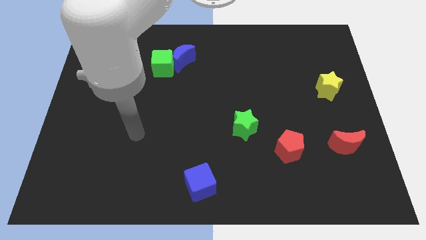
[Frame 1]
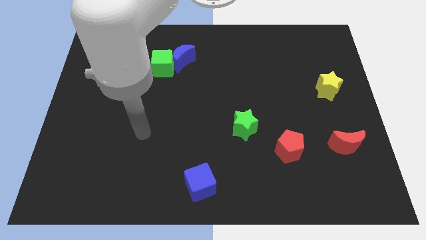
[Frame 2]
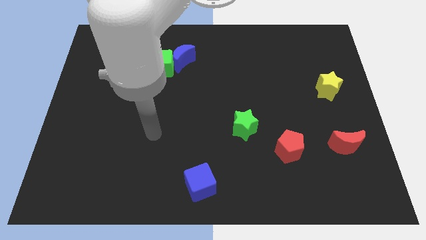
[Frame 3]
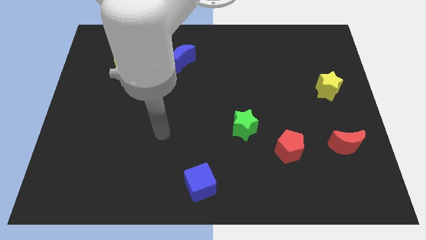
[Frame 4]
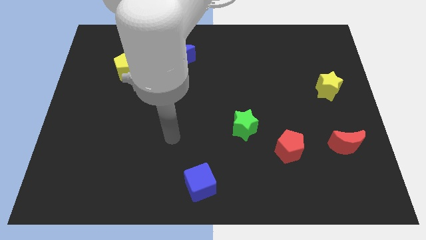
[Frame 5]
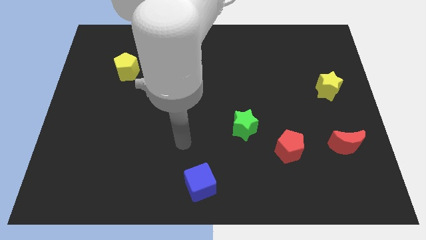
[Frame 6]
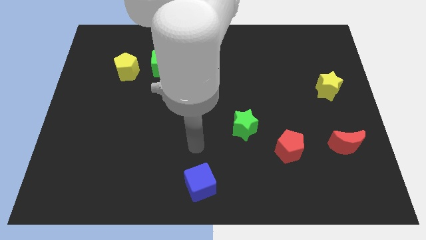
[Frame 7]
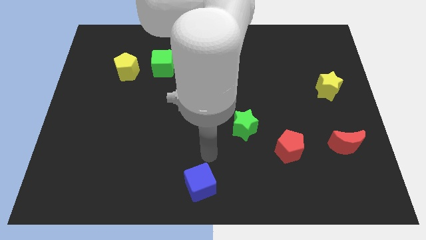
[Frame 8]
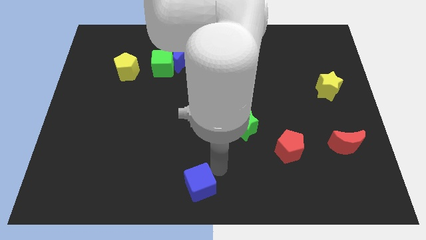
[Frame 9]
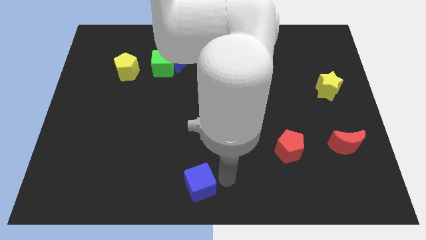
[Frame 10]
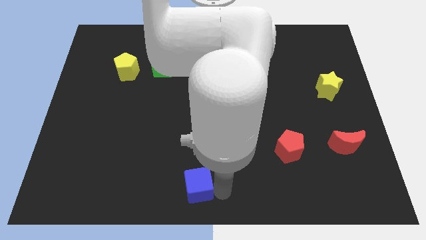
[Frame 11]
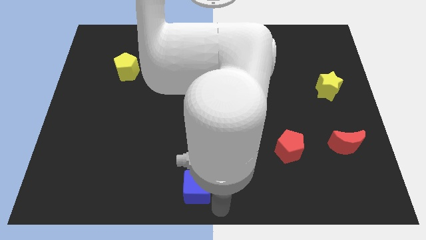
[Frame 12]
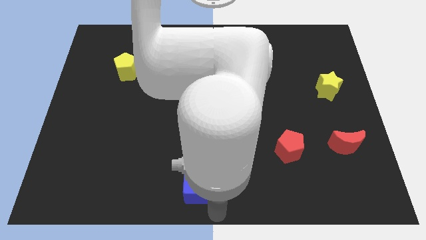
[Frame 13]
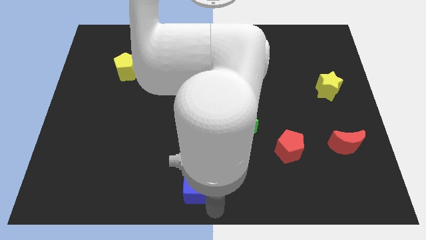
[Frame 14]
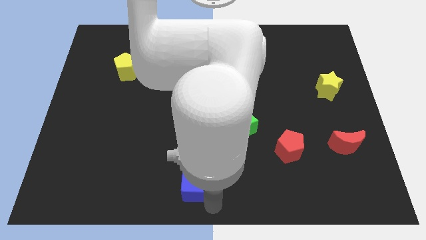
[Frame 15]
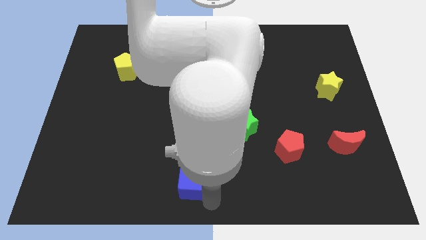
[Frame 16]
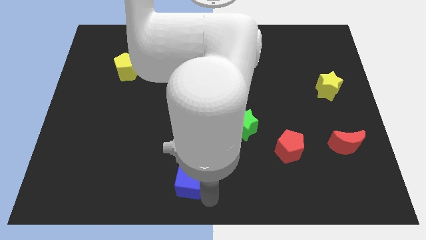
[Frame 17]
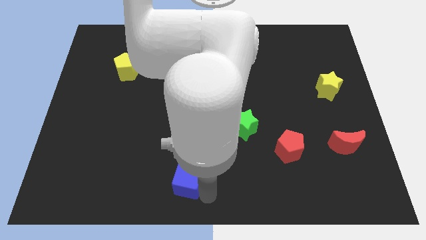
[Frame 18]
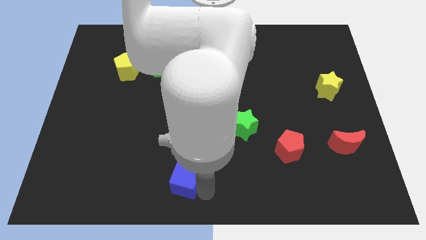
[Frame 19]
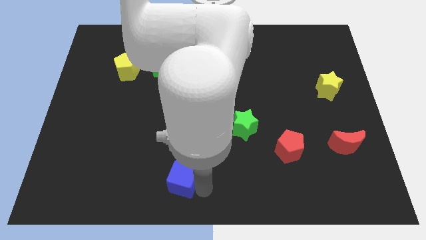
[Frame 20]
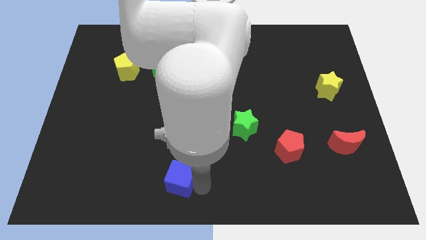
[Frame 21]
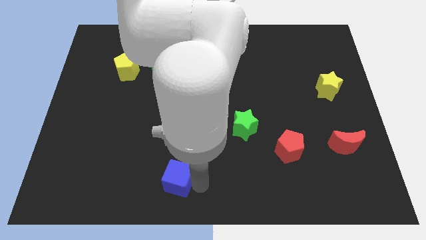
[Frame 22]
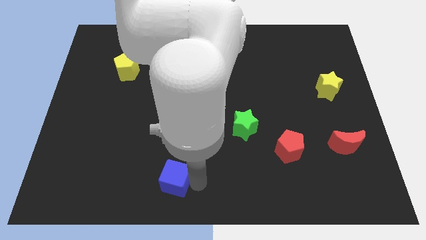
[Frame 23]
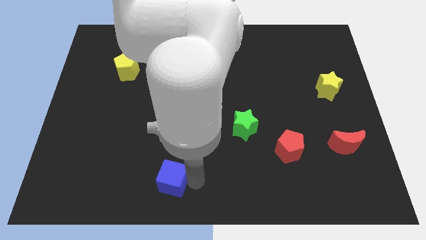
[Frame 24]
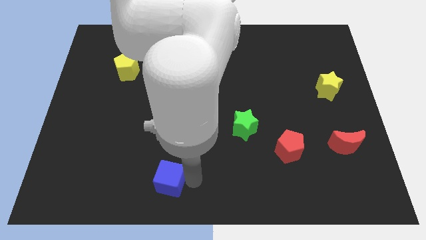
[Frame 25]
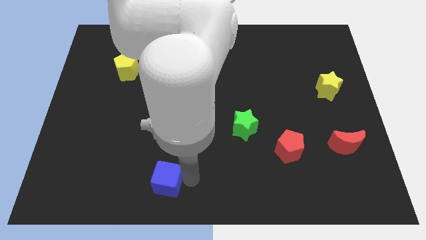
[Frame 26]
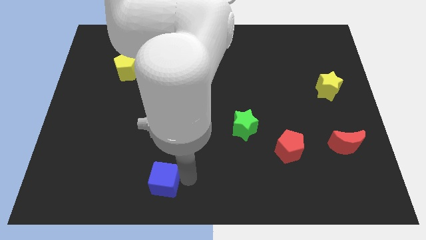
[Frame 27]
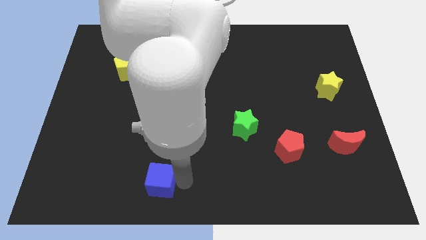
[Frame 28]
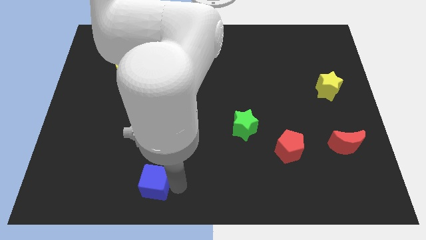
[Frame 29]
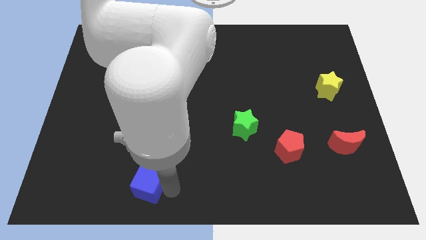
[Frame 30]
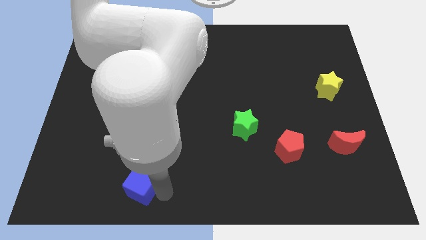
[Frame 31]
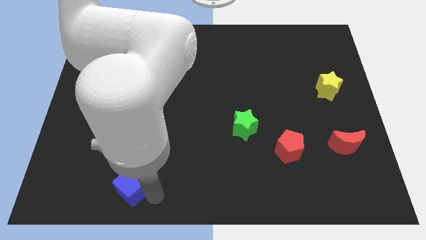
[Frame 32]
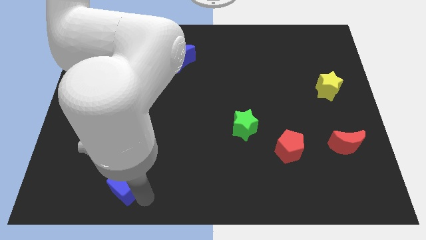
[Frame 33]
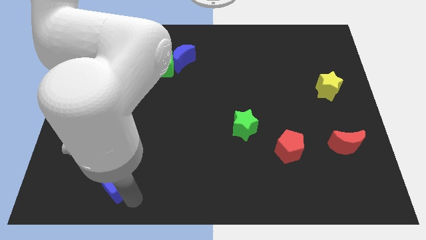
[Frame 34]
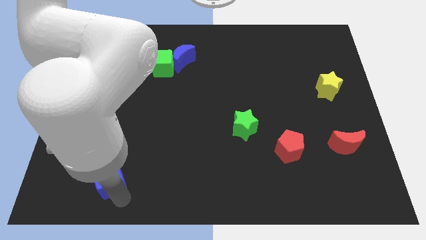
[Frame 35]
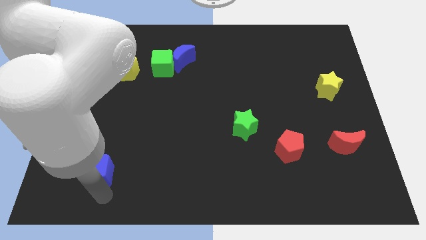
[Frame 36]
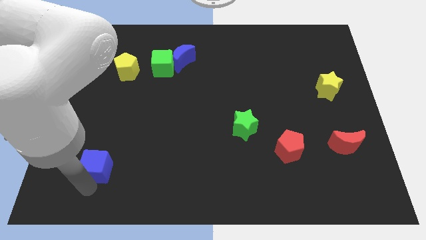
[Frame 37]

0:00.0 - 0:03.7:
slide the blue cube somewhat upwards and left

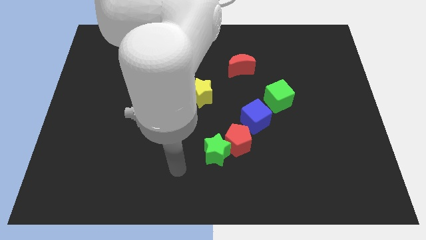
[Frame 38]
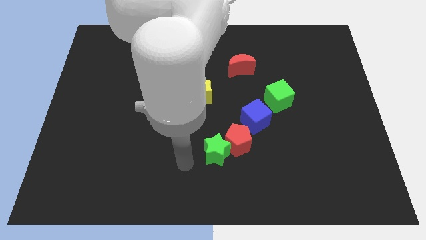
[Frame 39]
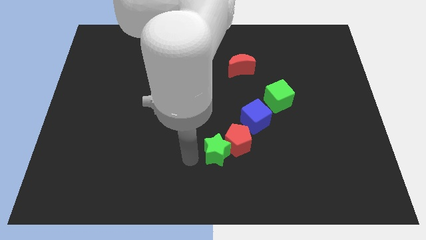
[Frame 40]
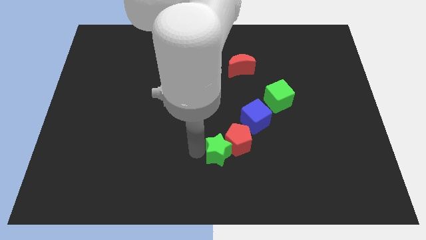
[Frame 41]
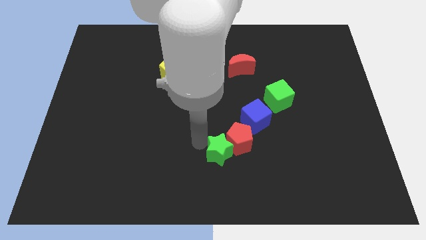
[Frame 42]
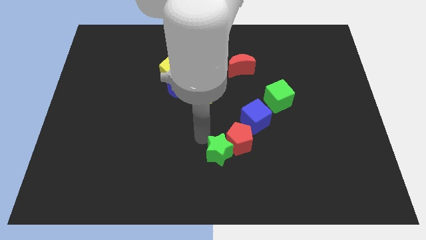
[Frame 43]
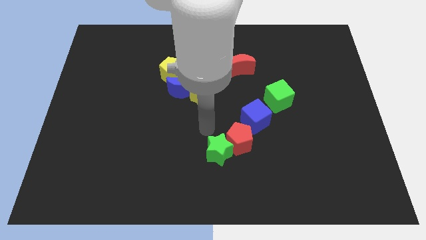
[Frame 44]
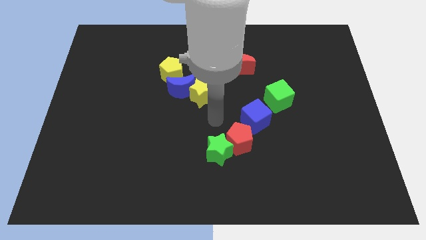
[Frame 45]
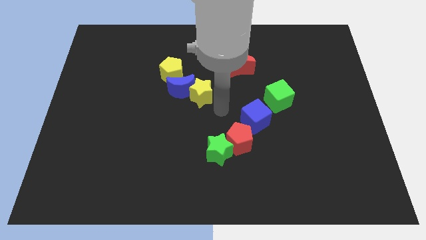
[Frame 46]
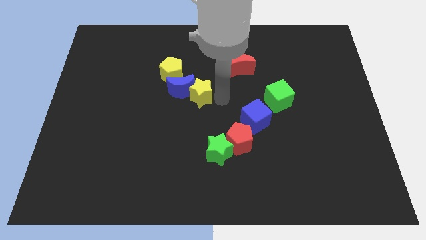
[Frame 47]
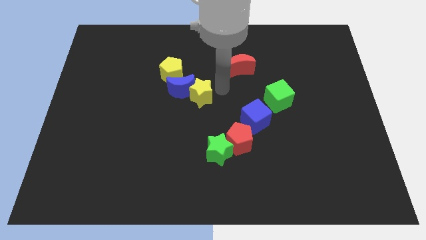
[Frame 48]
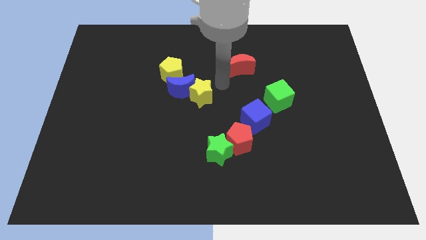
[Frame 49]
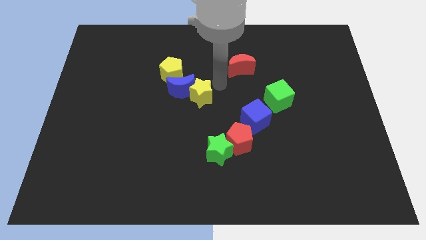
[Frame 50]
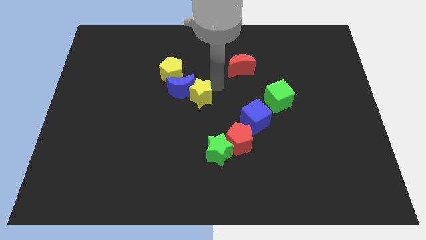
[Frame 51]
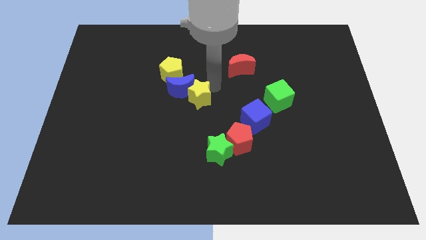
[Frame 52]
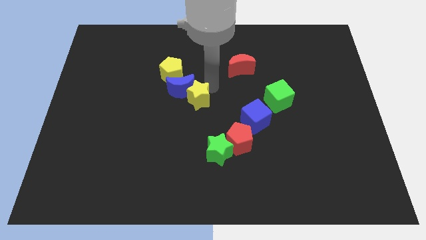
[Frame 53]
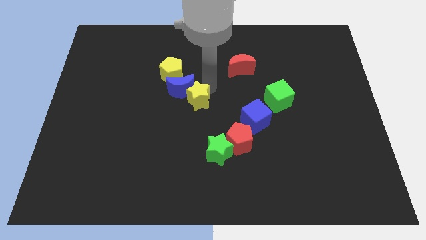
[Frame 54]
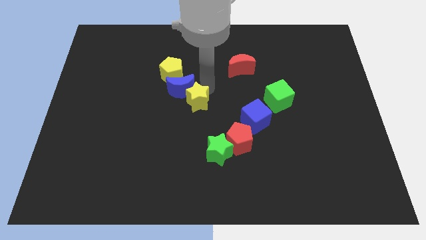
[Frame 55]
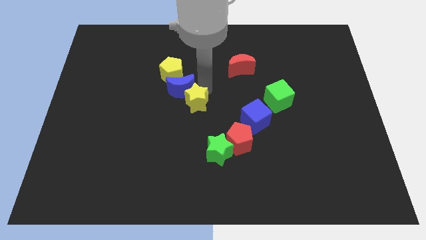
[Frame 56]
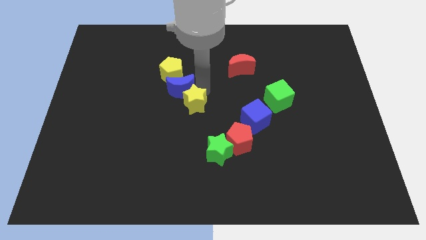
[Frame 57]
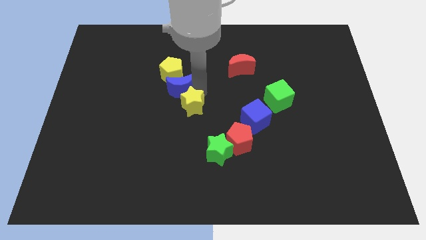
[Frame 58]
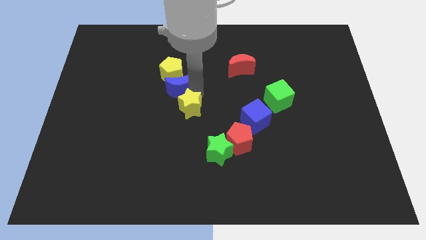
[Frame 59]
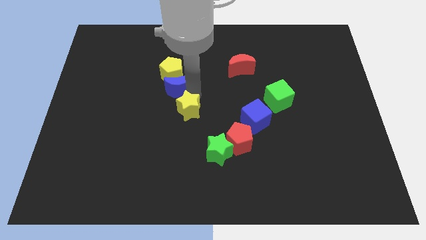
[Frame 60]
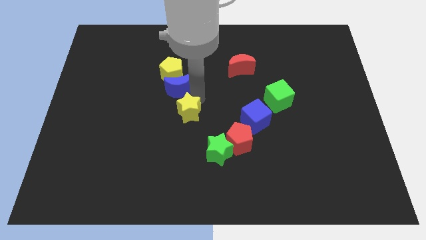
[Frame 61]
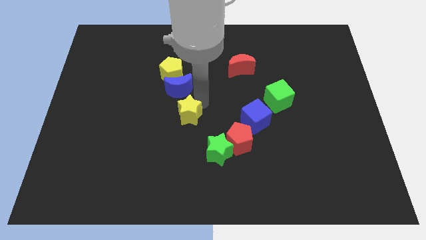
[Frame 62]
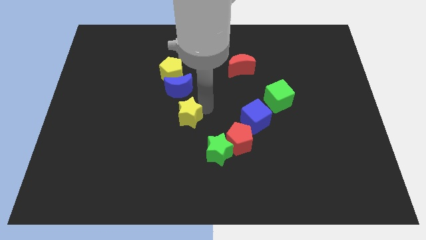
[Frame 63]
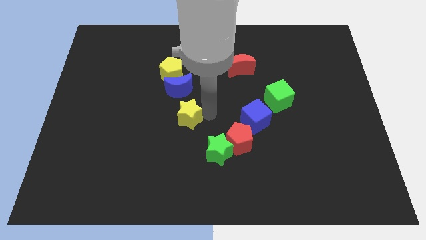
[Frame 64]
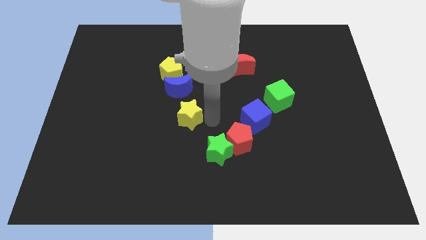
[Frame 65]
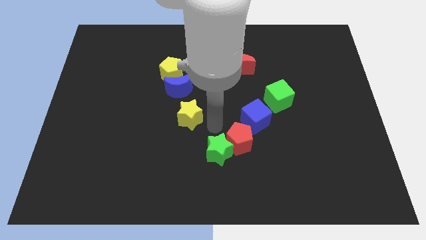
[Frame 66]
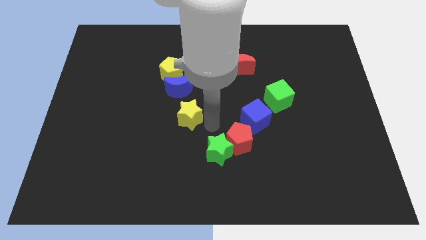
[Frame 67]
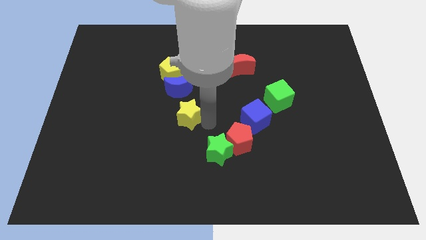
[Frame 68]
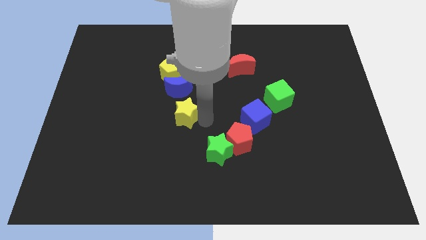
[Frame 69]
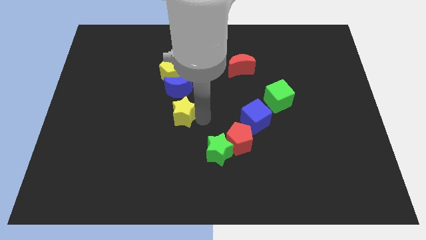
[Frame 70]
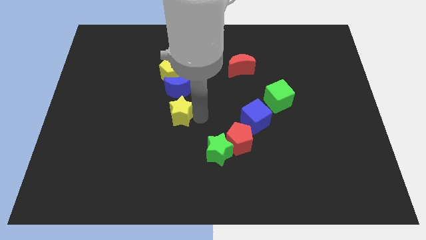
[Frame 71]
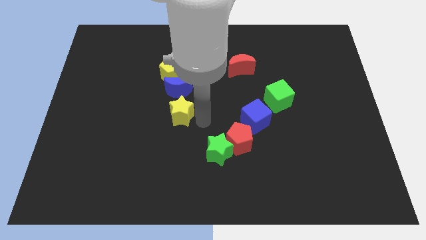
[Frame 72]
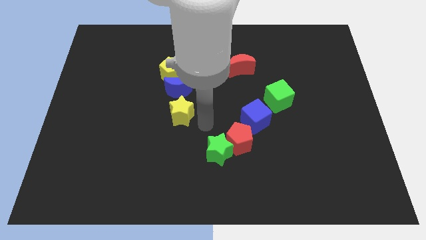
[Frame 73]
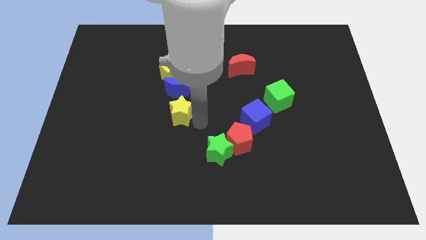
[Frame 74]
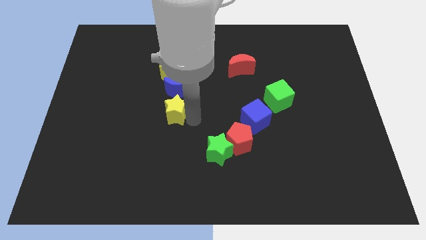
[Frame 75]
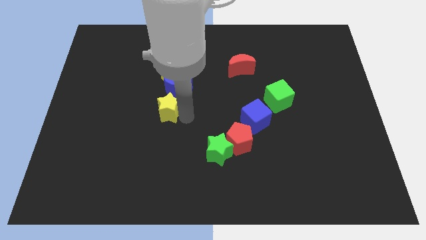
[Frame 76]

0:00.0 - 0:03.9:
slide the yellow star left slightly

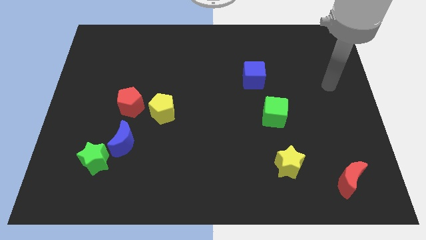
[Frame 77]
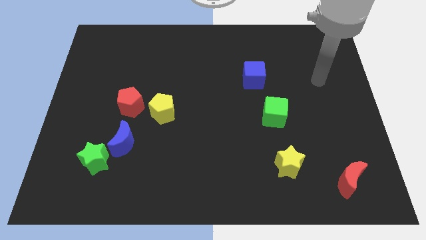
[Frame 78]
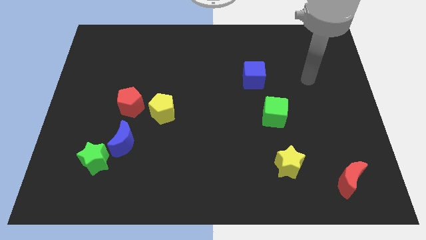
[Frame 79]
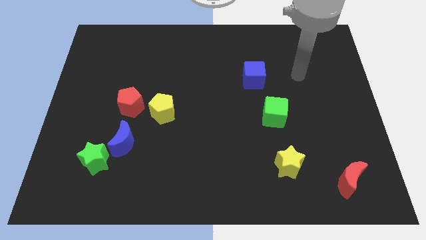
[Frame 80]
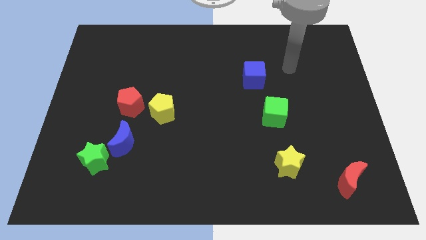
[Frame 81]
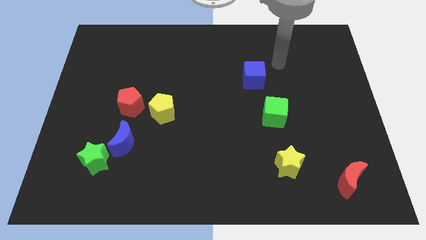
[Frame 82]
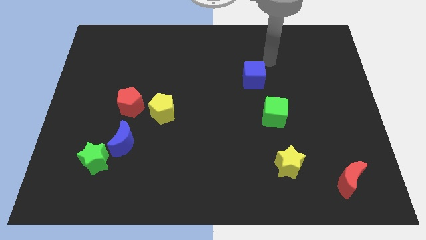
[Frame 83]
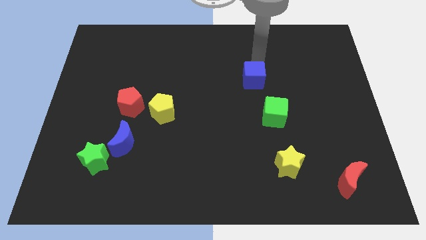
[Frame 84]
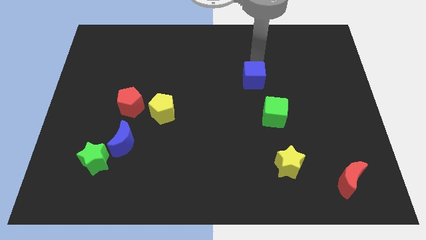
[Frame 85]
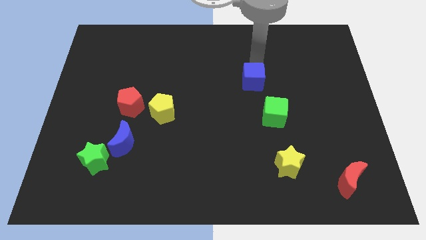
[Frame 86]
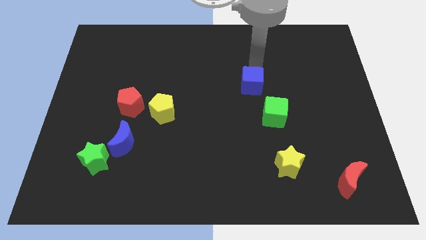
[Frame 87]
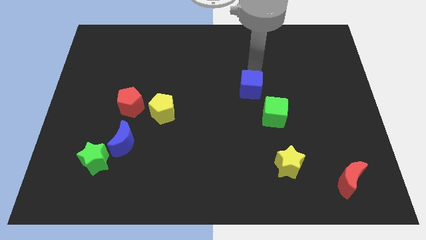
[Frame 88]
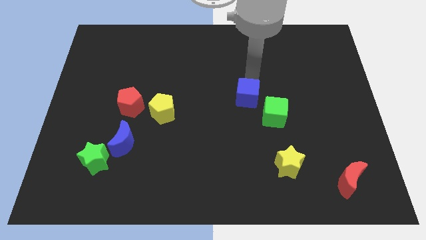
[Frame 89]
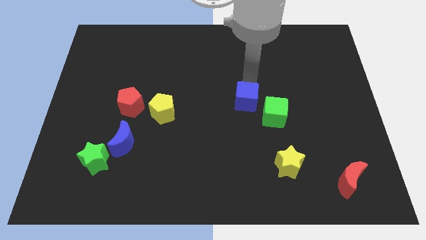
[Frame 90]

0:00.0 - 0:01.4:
push the blue cube slightly down
